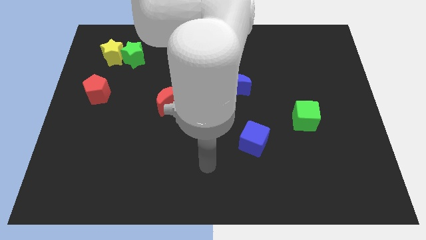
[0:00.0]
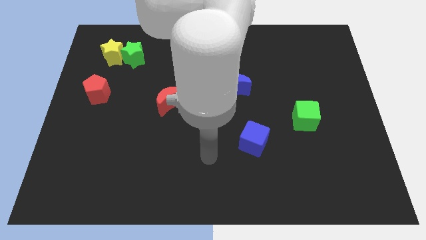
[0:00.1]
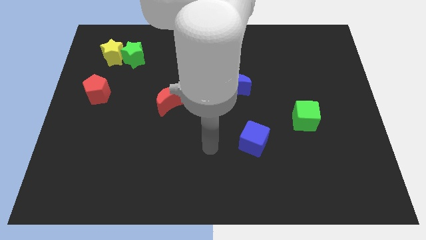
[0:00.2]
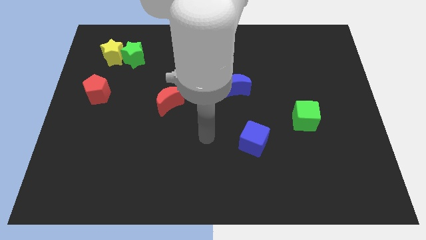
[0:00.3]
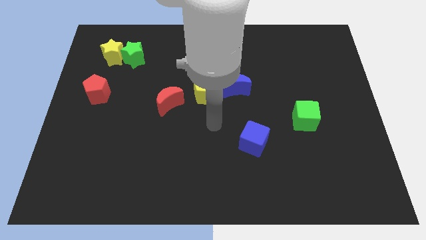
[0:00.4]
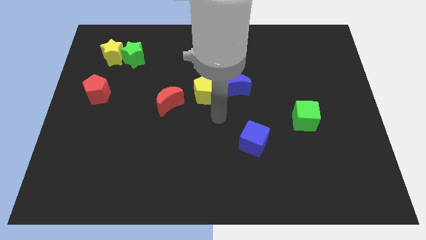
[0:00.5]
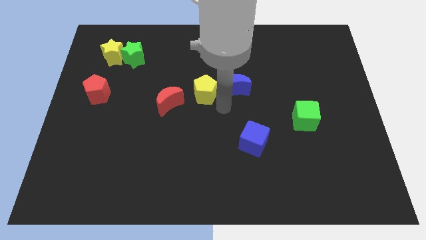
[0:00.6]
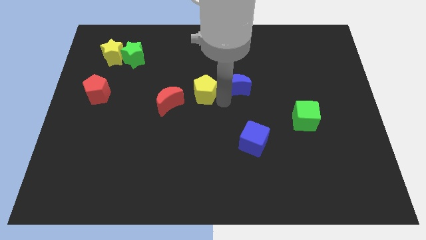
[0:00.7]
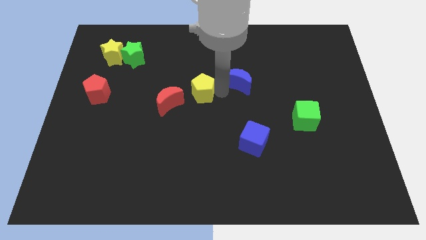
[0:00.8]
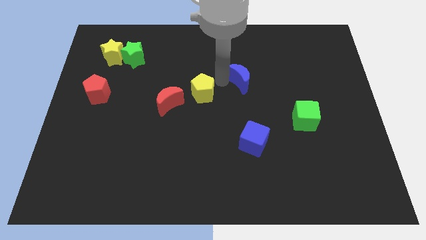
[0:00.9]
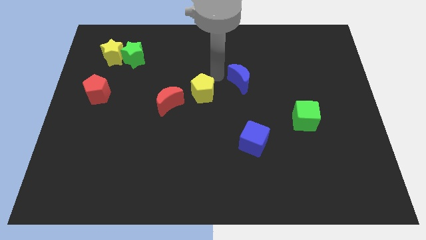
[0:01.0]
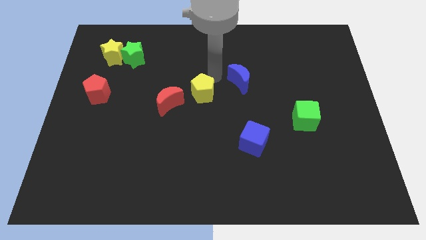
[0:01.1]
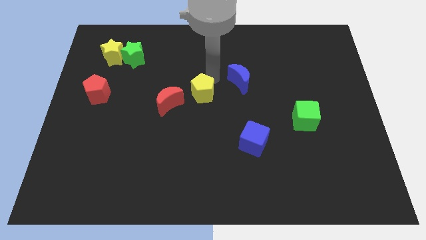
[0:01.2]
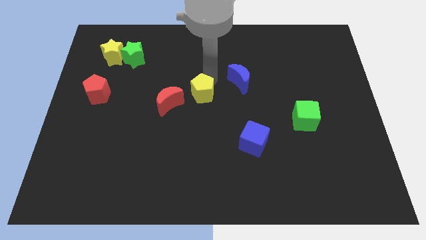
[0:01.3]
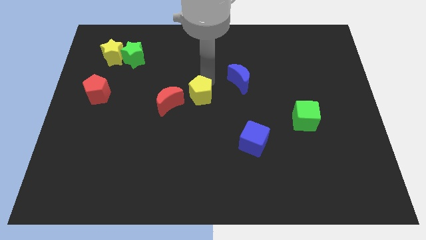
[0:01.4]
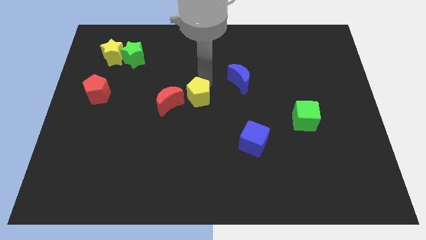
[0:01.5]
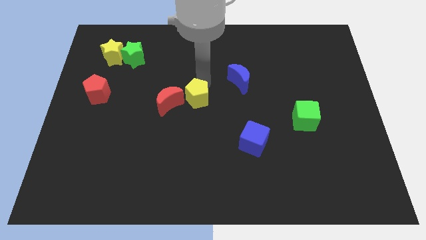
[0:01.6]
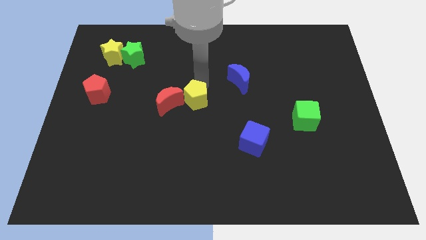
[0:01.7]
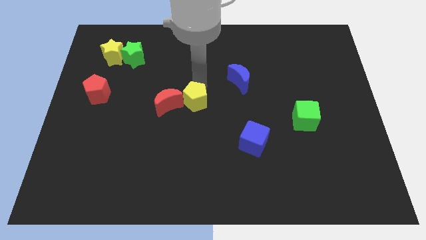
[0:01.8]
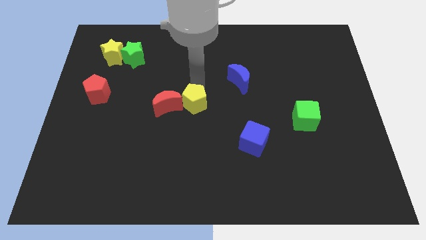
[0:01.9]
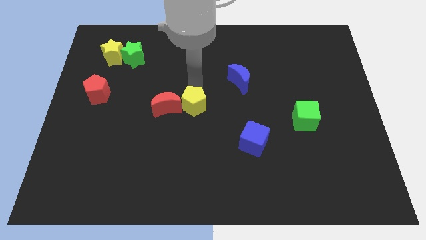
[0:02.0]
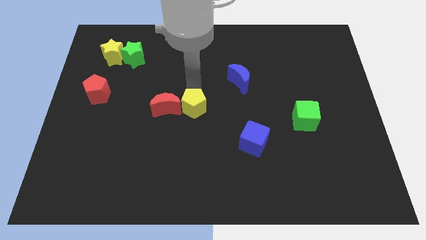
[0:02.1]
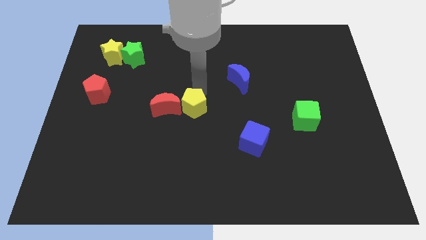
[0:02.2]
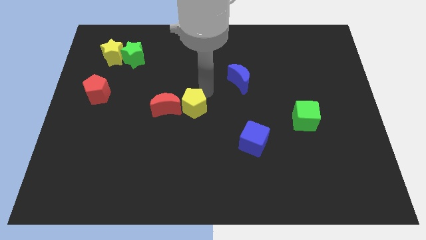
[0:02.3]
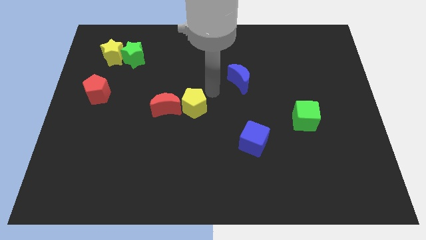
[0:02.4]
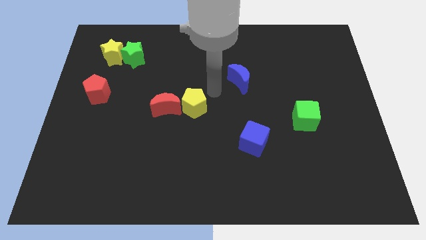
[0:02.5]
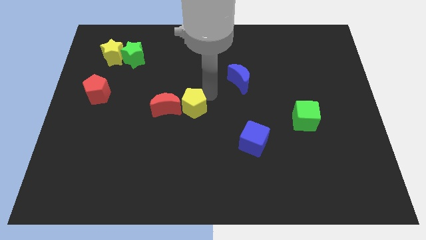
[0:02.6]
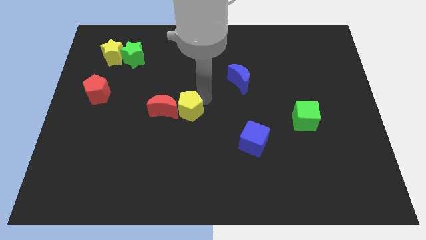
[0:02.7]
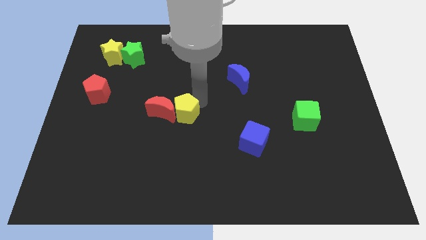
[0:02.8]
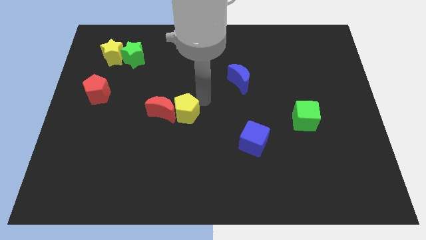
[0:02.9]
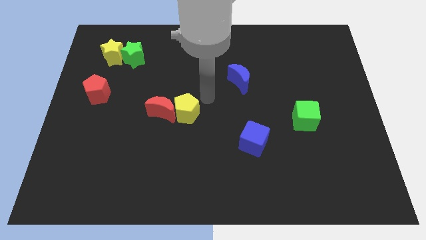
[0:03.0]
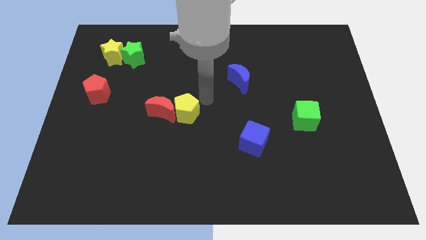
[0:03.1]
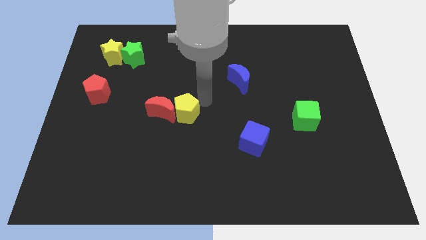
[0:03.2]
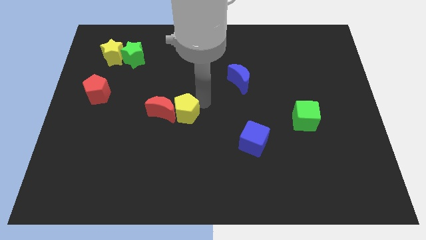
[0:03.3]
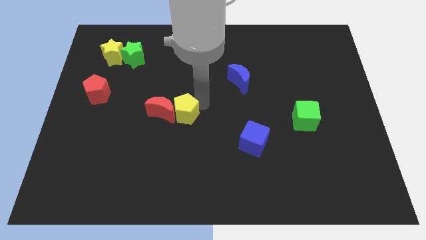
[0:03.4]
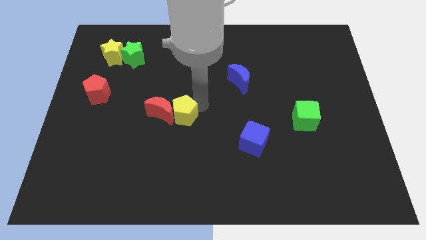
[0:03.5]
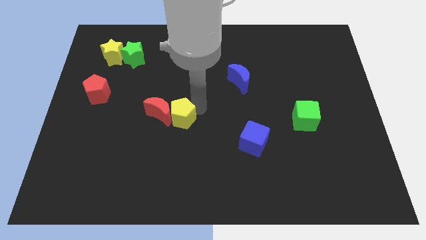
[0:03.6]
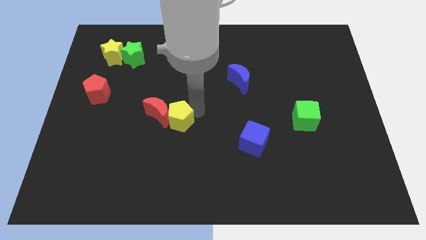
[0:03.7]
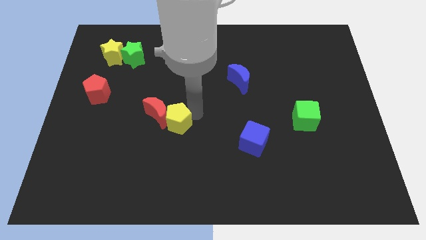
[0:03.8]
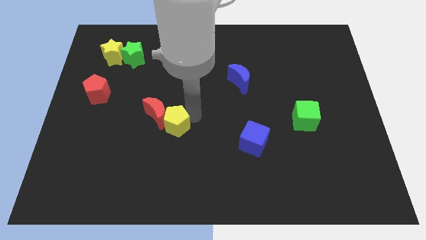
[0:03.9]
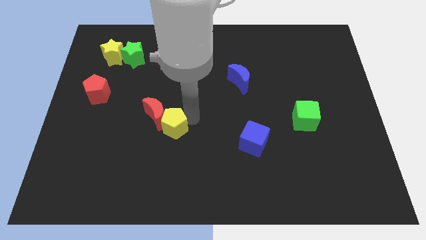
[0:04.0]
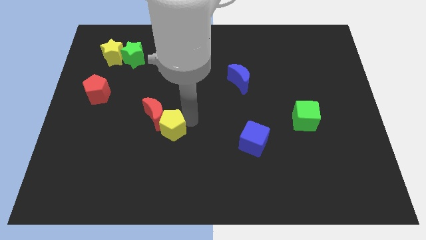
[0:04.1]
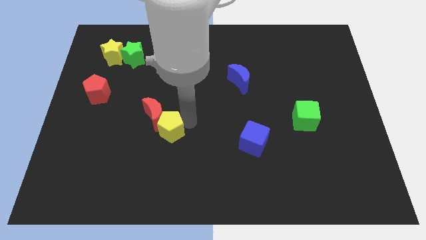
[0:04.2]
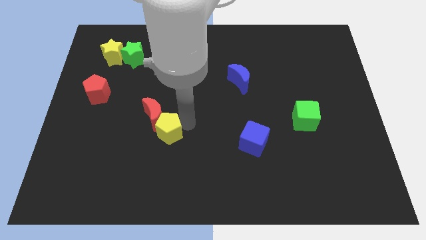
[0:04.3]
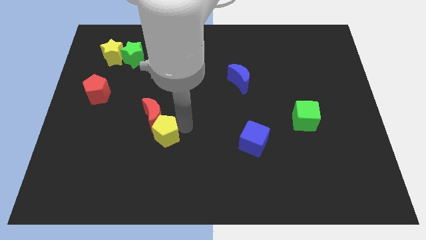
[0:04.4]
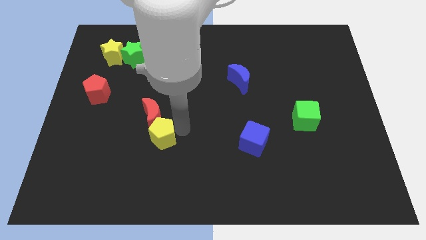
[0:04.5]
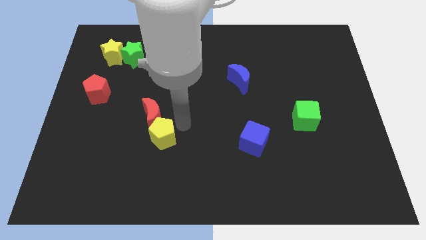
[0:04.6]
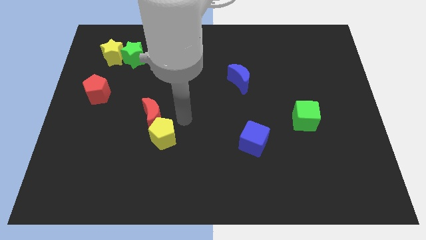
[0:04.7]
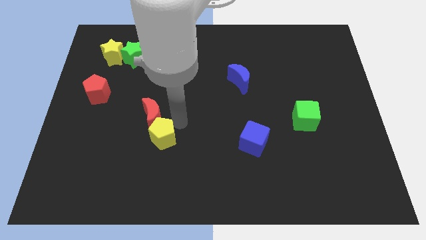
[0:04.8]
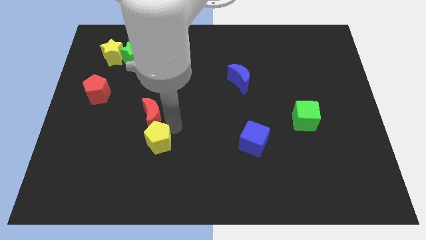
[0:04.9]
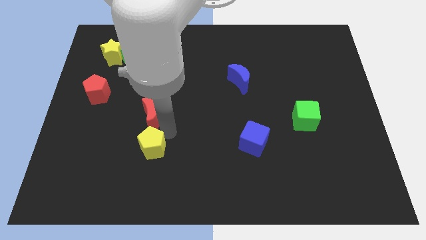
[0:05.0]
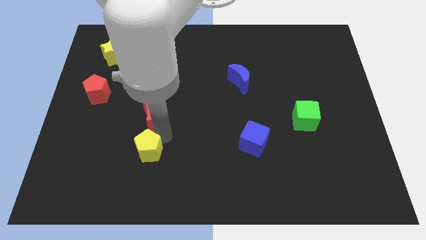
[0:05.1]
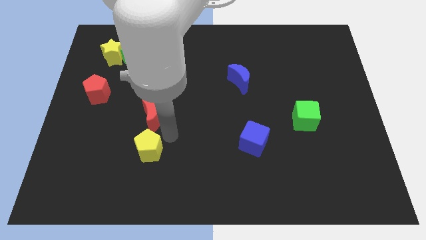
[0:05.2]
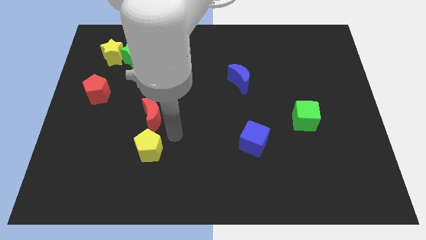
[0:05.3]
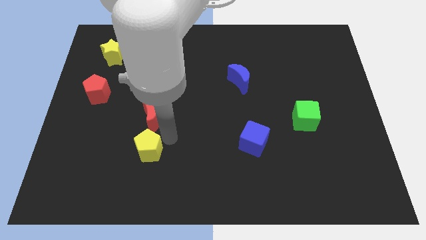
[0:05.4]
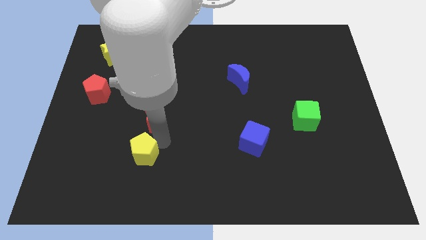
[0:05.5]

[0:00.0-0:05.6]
slide the yellow pentagon down and to the left diagonally

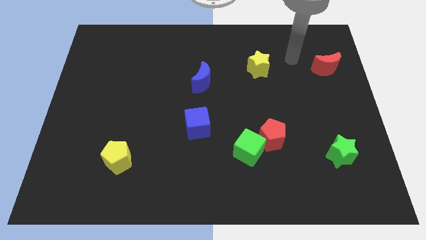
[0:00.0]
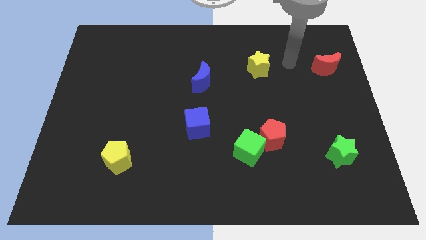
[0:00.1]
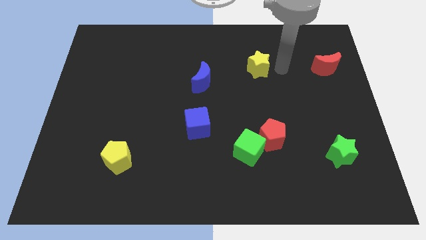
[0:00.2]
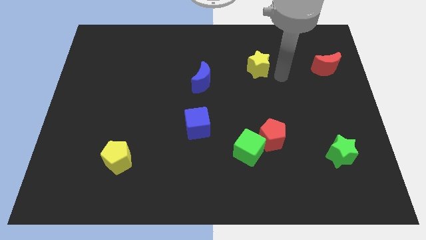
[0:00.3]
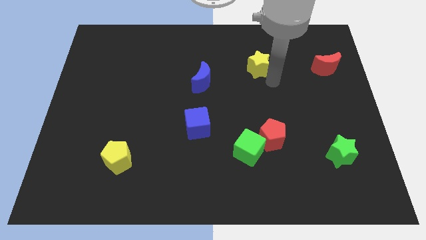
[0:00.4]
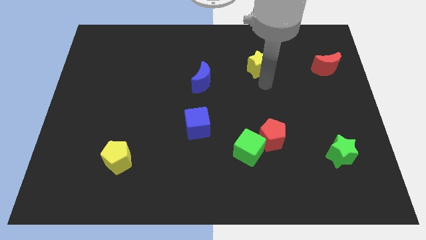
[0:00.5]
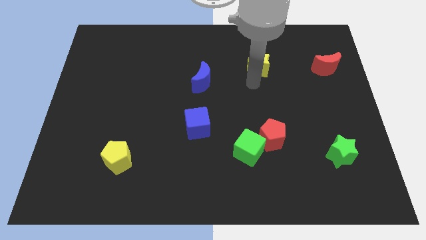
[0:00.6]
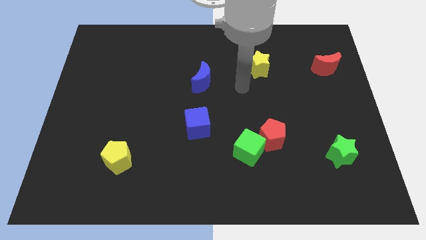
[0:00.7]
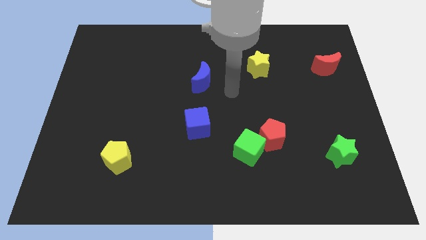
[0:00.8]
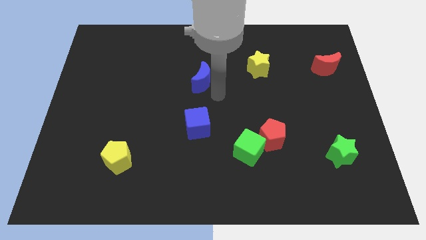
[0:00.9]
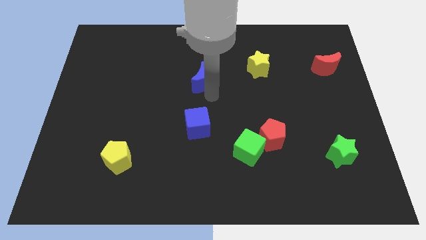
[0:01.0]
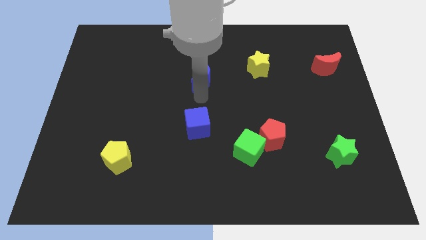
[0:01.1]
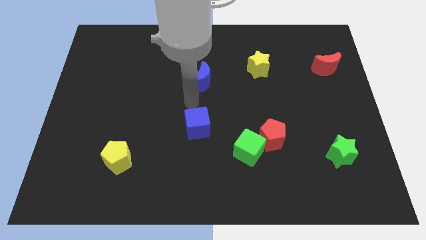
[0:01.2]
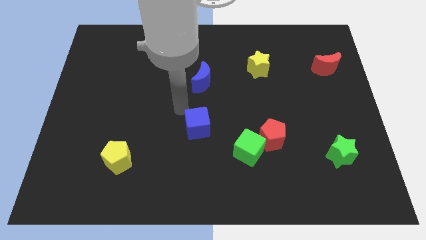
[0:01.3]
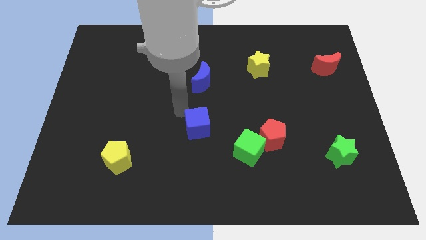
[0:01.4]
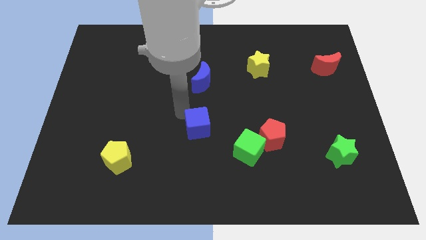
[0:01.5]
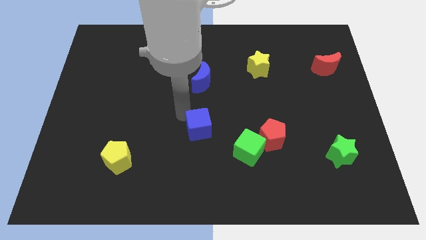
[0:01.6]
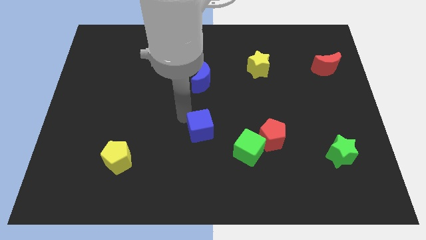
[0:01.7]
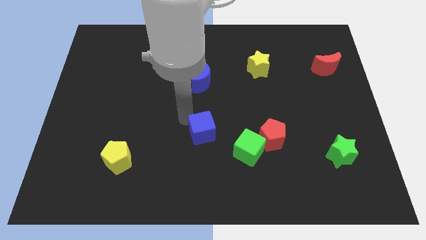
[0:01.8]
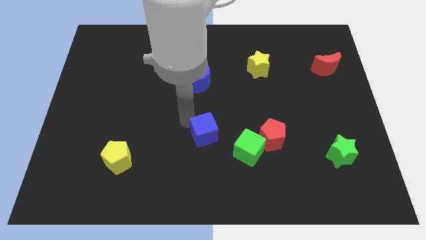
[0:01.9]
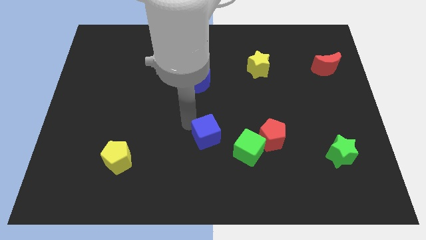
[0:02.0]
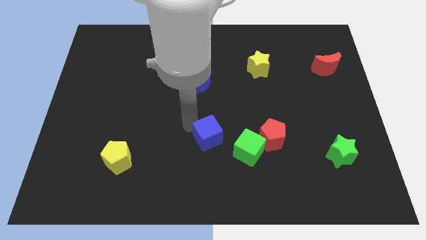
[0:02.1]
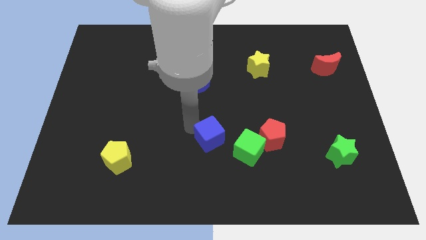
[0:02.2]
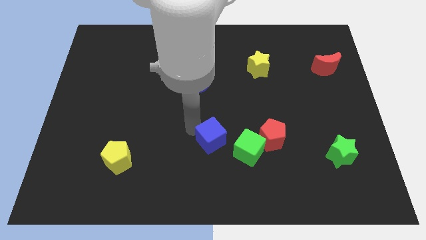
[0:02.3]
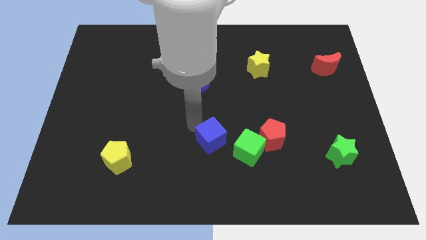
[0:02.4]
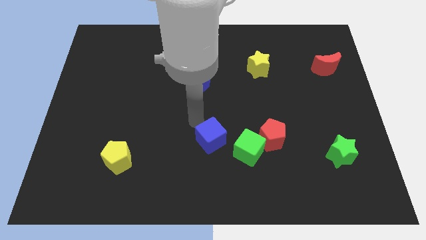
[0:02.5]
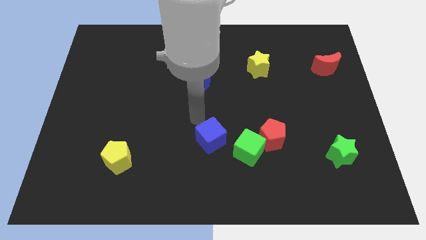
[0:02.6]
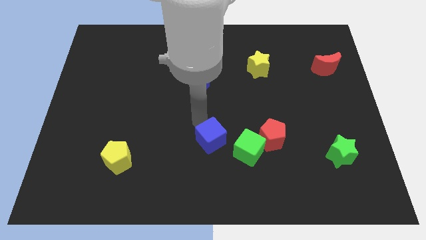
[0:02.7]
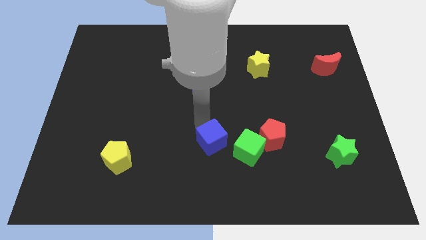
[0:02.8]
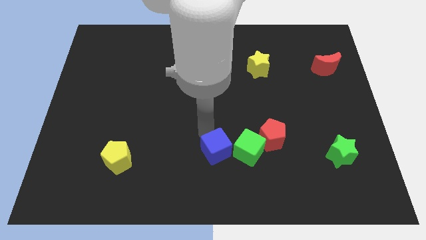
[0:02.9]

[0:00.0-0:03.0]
push the blue cube slightly downwards and right diagonally
